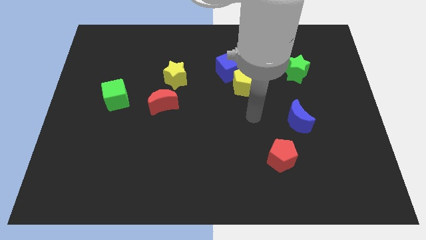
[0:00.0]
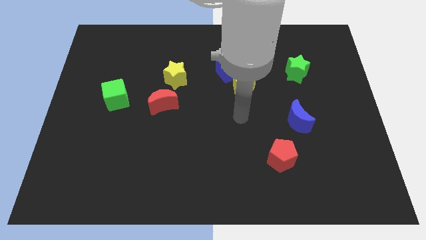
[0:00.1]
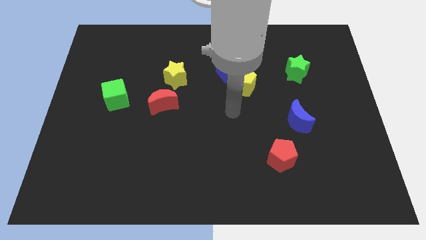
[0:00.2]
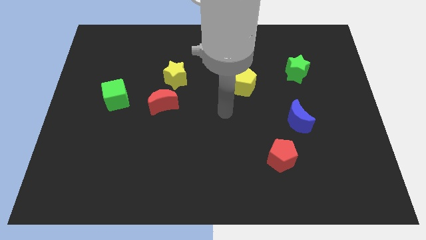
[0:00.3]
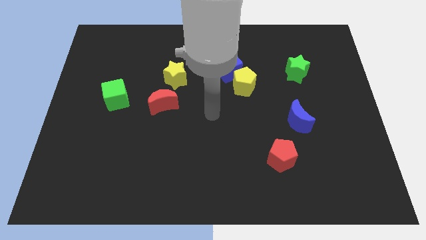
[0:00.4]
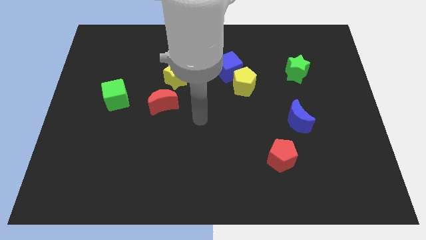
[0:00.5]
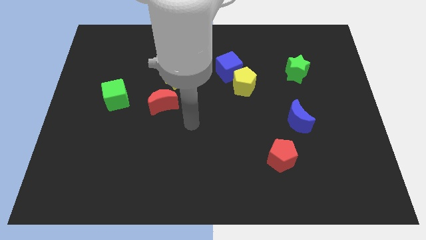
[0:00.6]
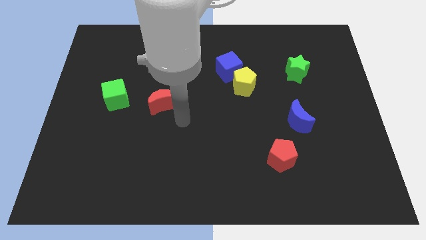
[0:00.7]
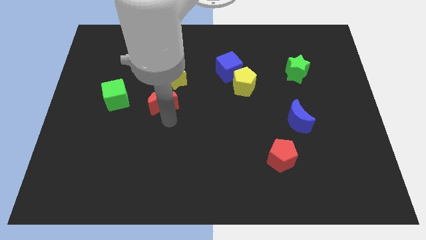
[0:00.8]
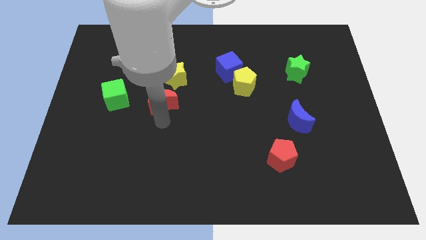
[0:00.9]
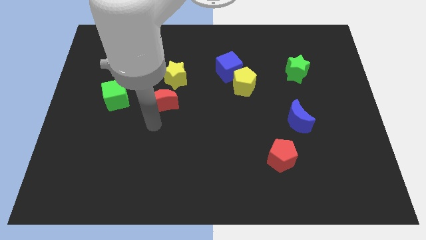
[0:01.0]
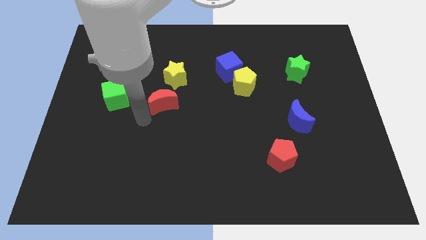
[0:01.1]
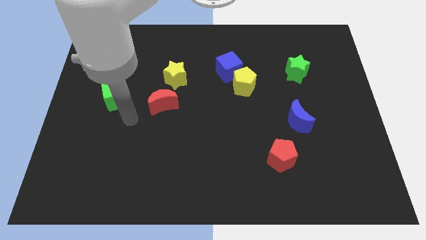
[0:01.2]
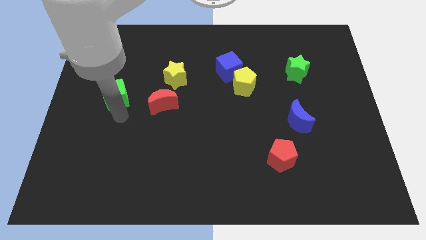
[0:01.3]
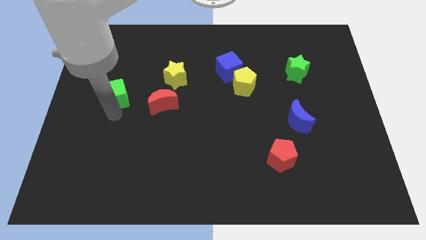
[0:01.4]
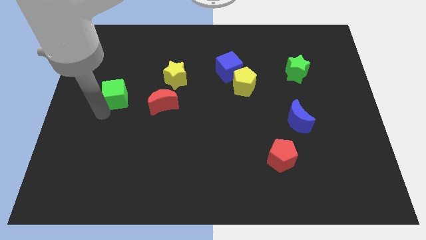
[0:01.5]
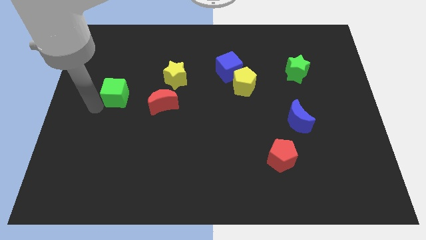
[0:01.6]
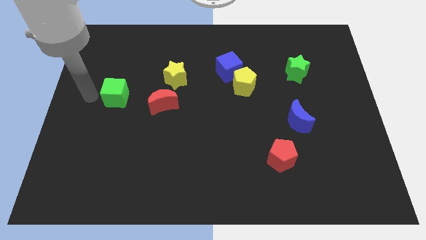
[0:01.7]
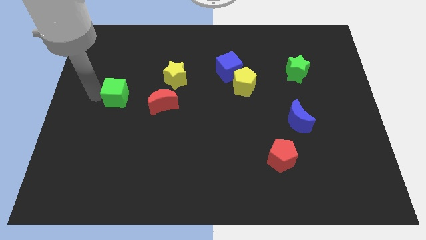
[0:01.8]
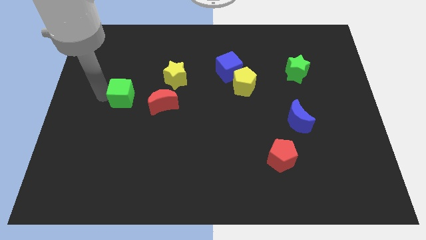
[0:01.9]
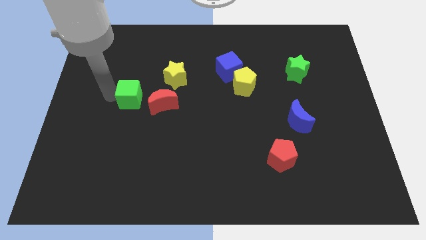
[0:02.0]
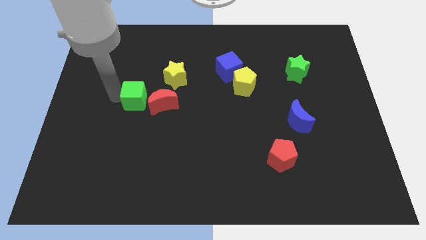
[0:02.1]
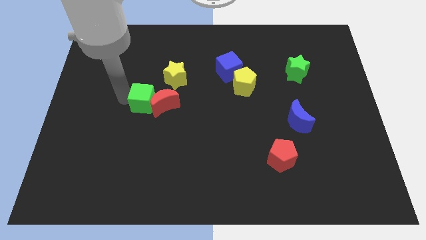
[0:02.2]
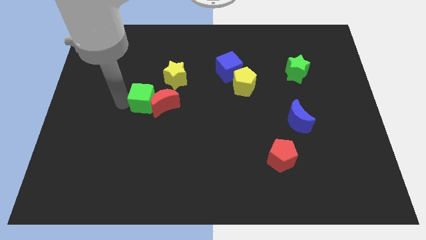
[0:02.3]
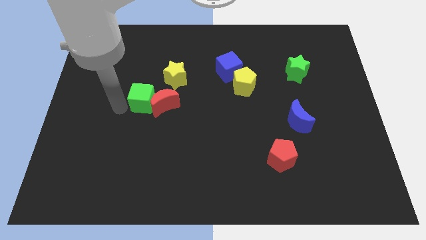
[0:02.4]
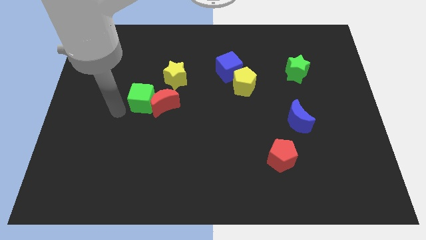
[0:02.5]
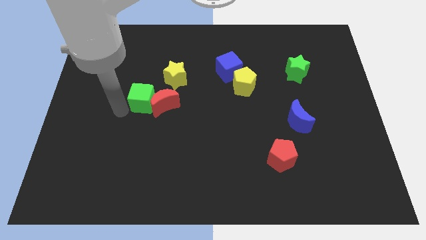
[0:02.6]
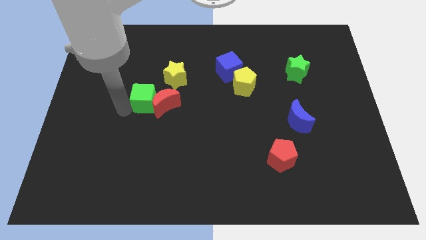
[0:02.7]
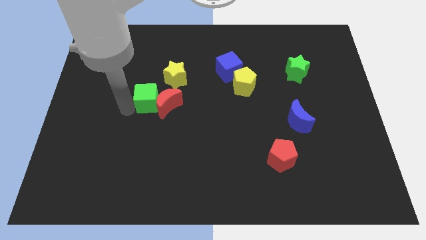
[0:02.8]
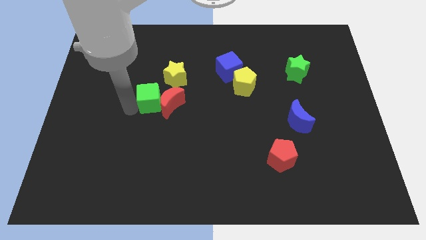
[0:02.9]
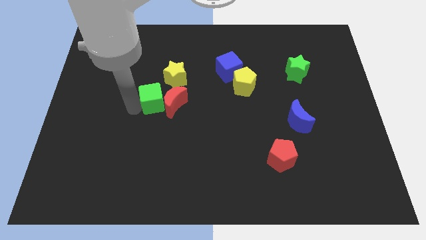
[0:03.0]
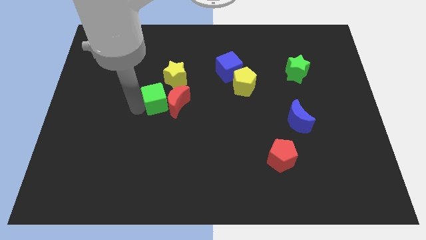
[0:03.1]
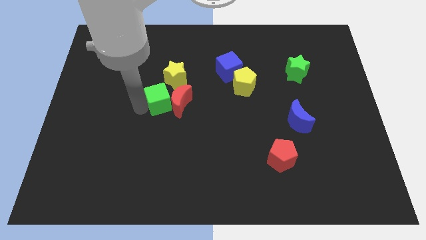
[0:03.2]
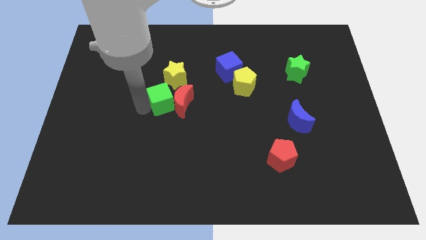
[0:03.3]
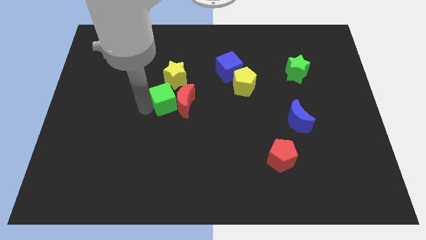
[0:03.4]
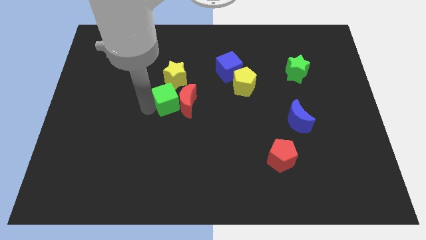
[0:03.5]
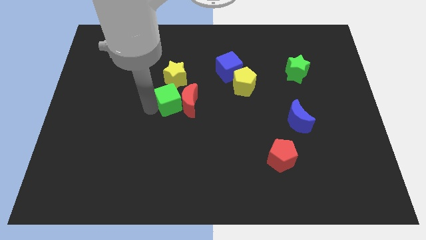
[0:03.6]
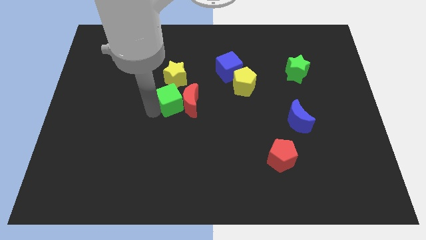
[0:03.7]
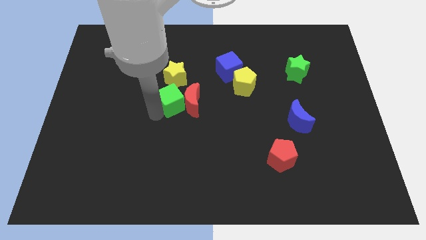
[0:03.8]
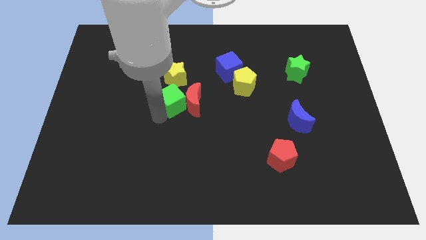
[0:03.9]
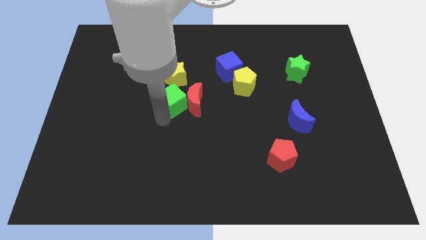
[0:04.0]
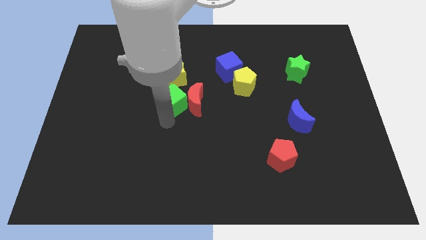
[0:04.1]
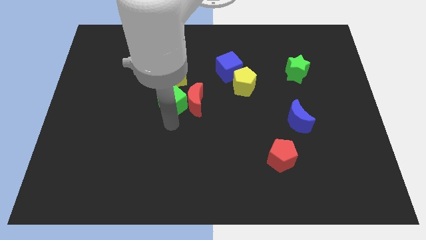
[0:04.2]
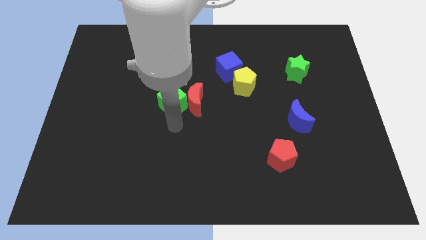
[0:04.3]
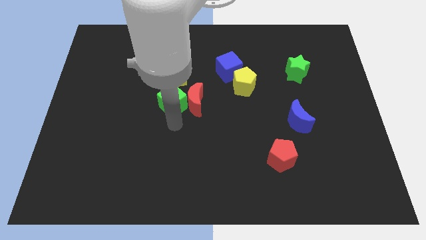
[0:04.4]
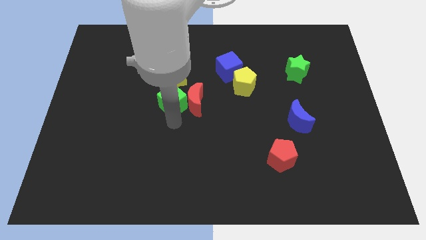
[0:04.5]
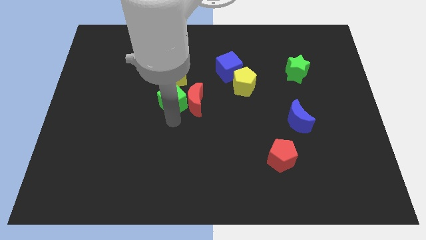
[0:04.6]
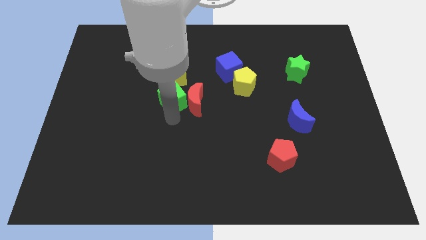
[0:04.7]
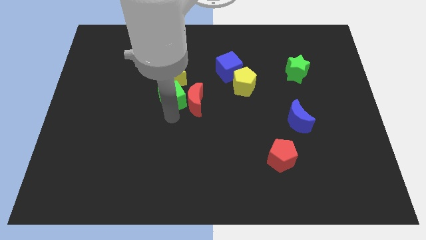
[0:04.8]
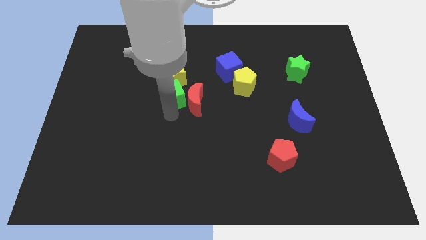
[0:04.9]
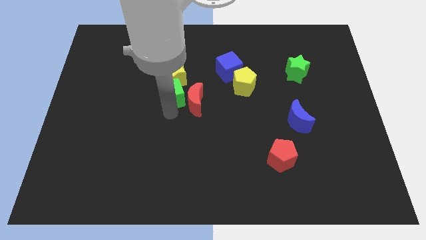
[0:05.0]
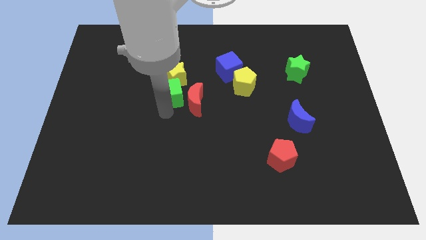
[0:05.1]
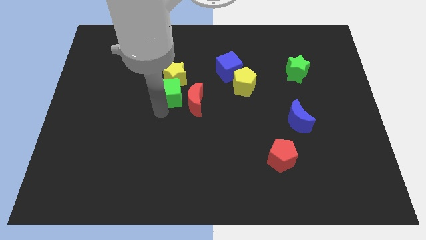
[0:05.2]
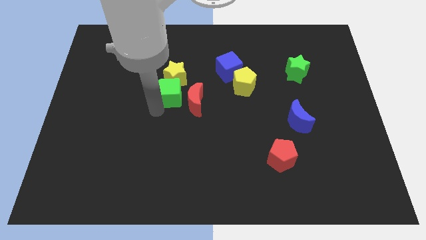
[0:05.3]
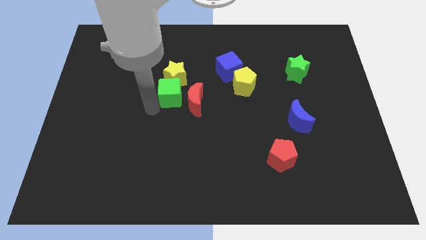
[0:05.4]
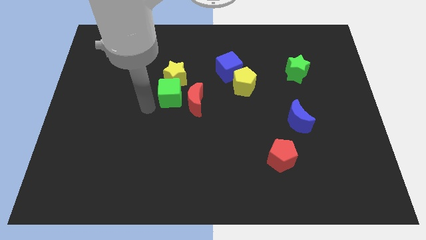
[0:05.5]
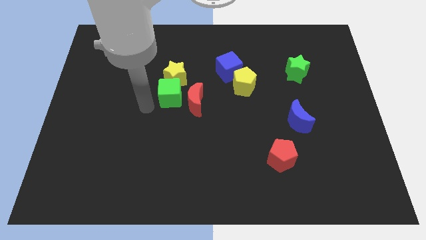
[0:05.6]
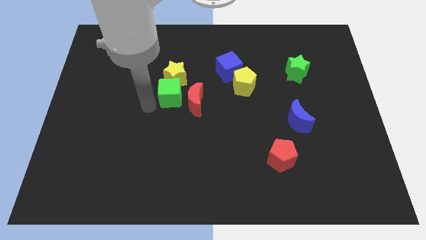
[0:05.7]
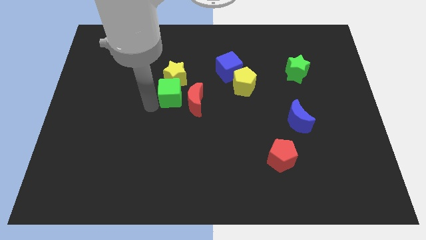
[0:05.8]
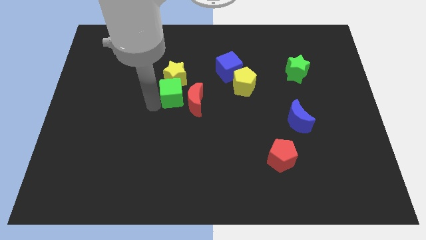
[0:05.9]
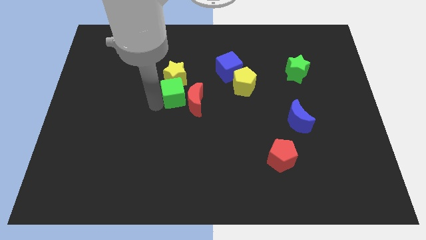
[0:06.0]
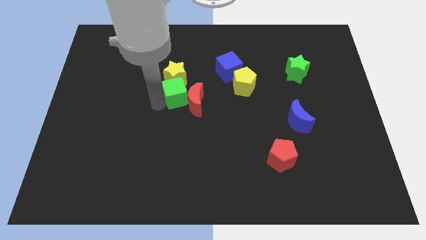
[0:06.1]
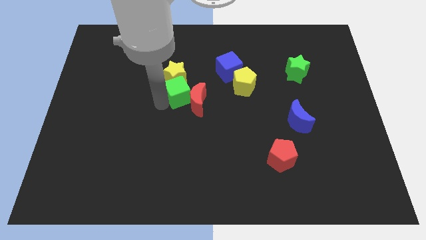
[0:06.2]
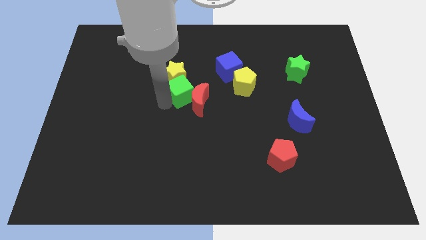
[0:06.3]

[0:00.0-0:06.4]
push the green cube to the left side of the yellow pentagon

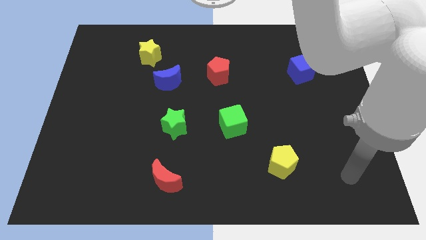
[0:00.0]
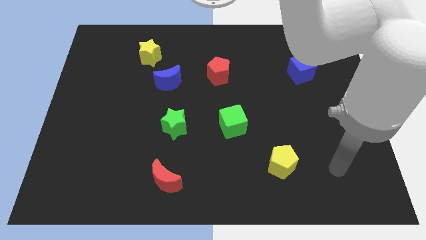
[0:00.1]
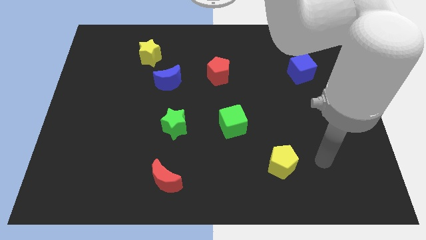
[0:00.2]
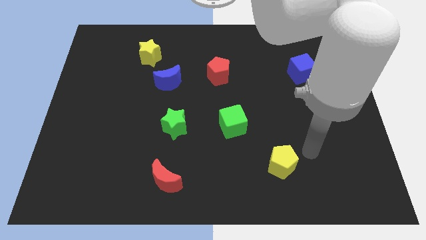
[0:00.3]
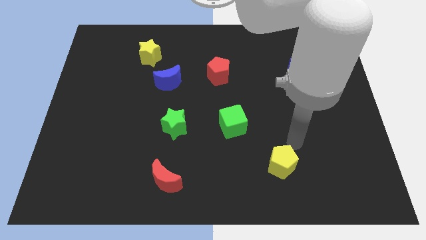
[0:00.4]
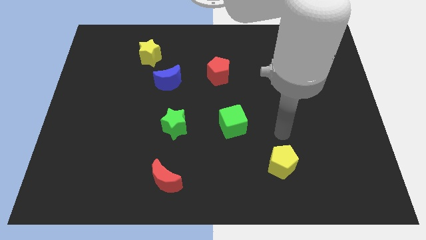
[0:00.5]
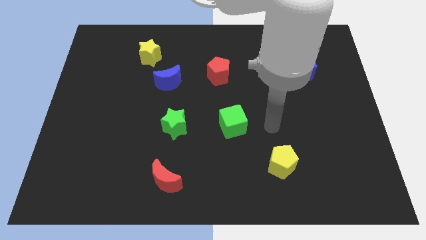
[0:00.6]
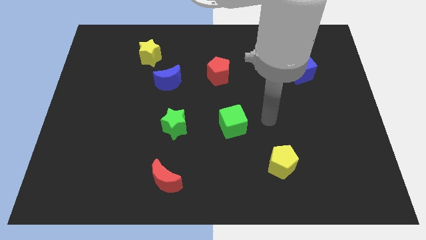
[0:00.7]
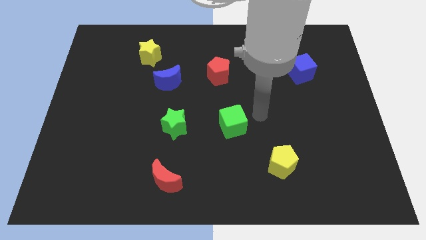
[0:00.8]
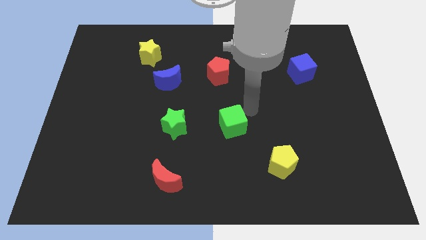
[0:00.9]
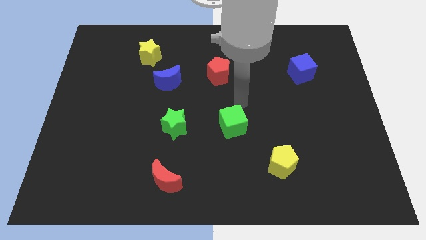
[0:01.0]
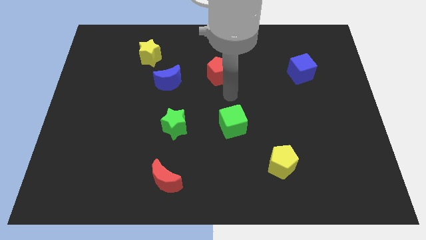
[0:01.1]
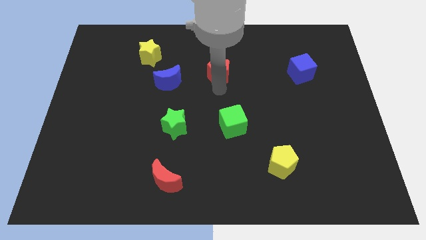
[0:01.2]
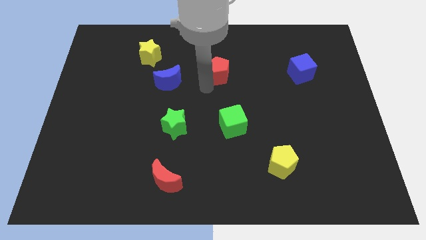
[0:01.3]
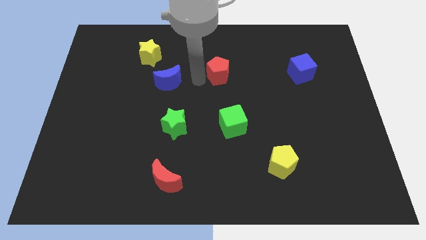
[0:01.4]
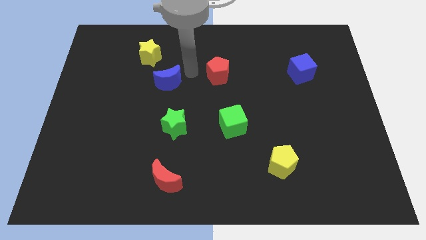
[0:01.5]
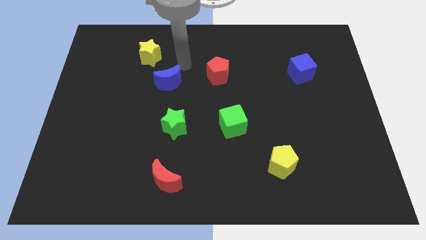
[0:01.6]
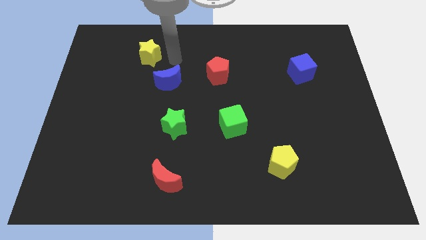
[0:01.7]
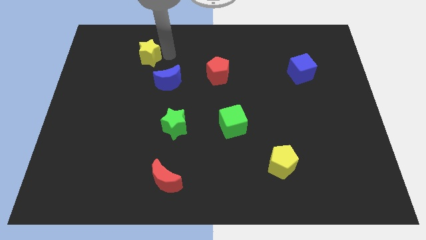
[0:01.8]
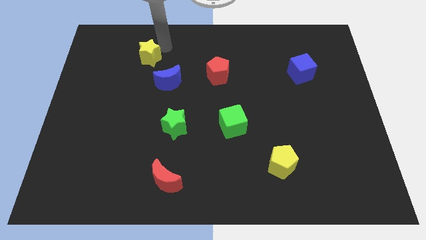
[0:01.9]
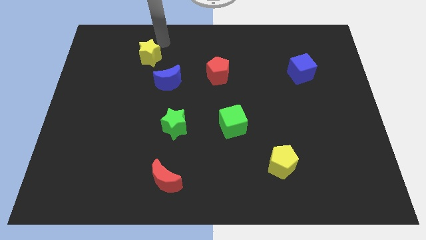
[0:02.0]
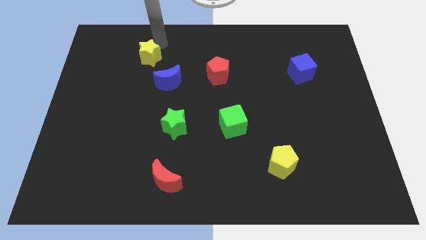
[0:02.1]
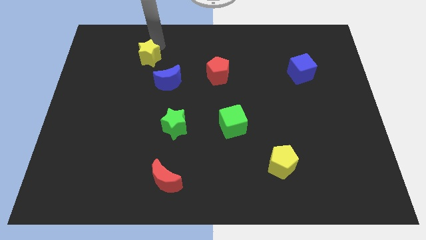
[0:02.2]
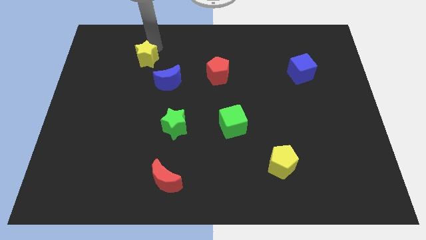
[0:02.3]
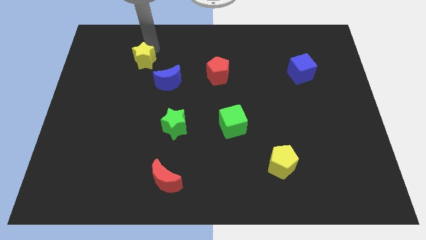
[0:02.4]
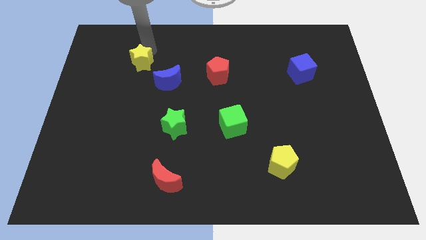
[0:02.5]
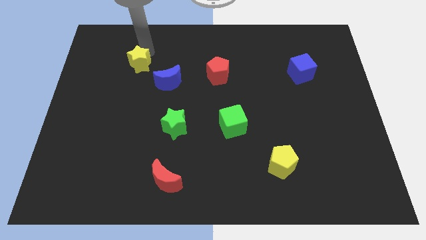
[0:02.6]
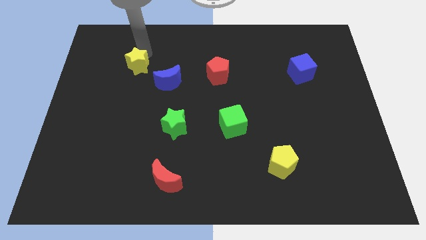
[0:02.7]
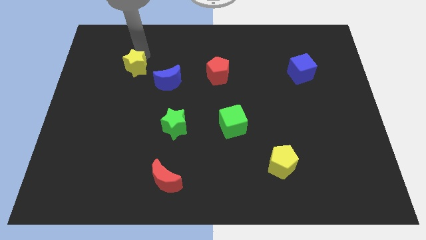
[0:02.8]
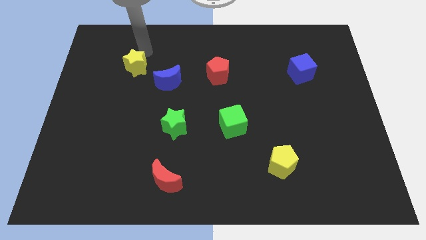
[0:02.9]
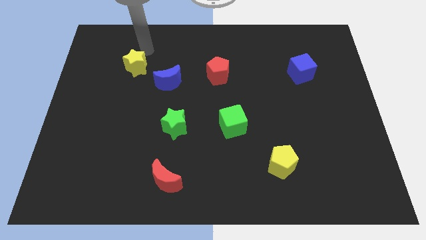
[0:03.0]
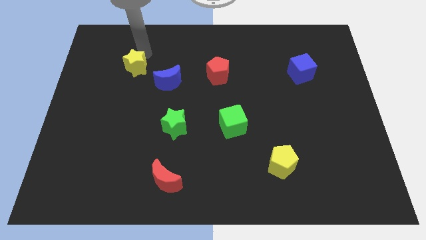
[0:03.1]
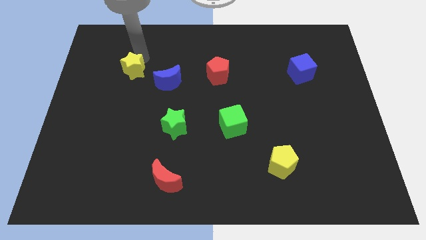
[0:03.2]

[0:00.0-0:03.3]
slide the yellow star to the left of the blue moon
